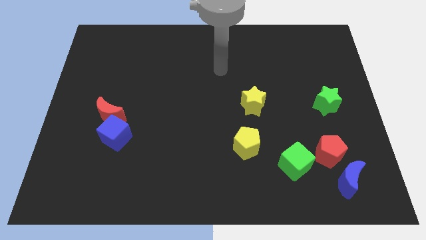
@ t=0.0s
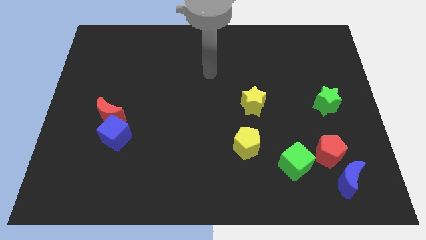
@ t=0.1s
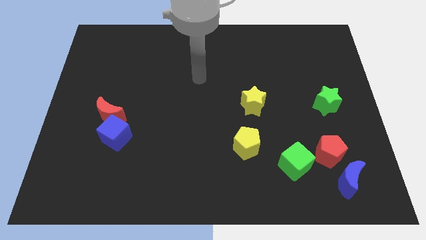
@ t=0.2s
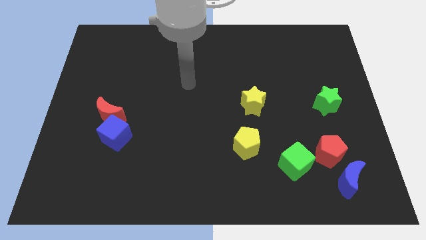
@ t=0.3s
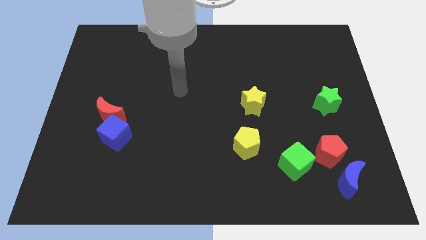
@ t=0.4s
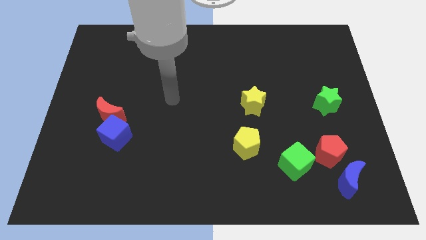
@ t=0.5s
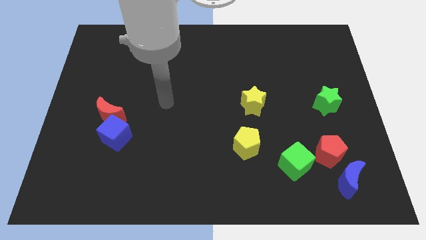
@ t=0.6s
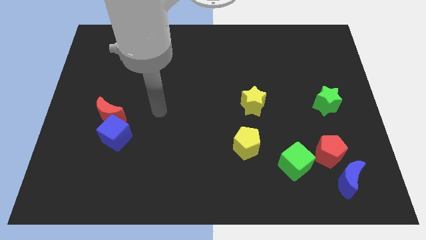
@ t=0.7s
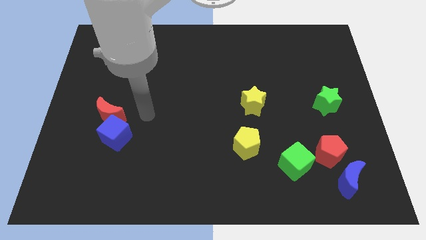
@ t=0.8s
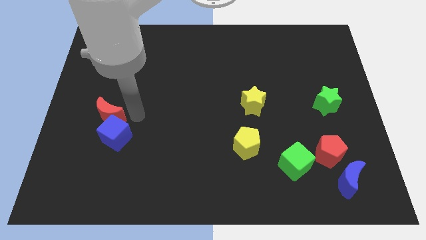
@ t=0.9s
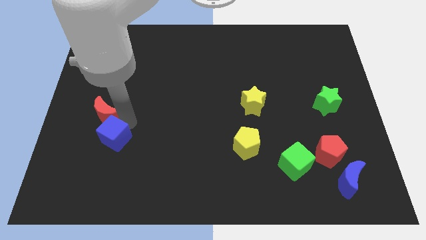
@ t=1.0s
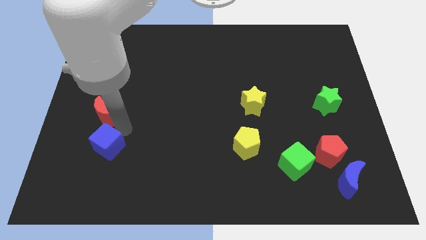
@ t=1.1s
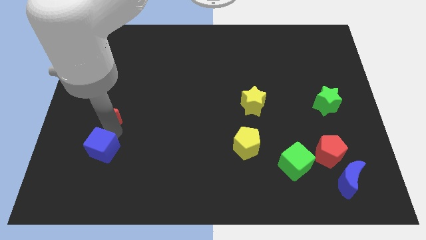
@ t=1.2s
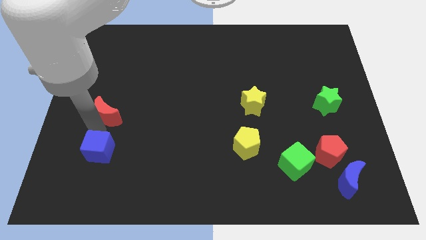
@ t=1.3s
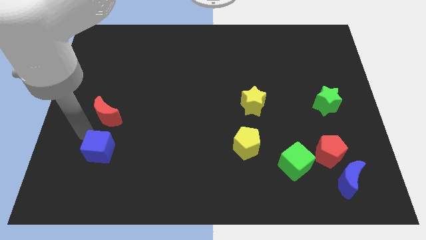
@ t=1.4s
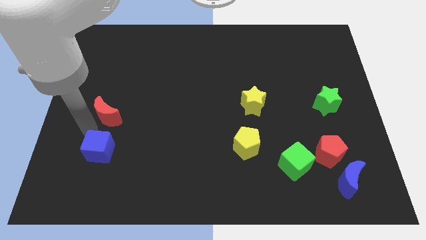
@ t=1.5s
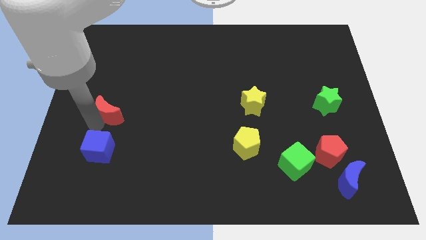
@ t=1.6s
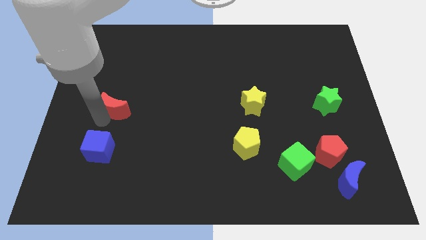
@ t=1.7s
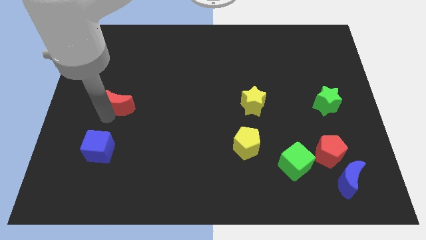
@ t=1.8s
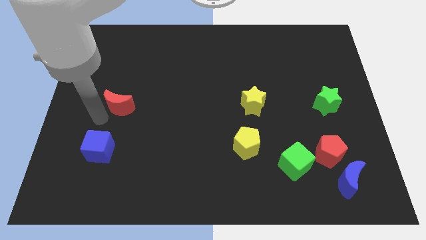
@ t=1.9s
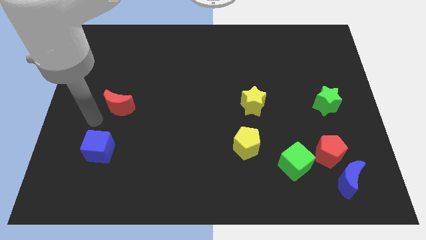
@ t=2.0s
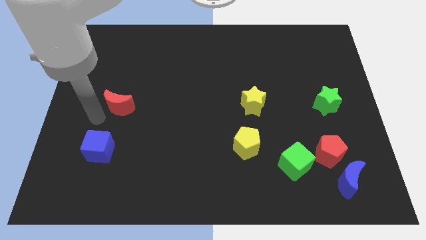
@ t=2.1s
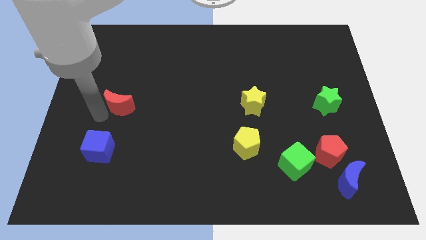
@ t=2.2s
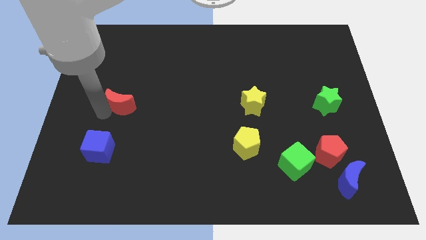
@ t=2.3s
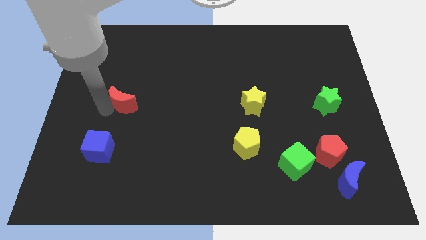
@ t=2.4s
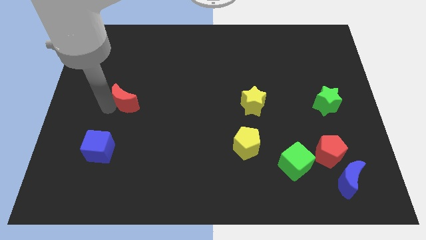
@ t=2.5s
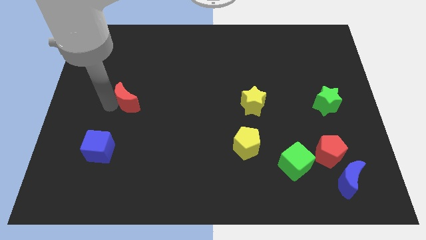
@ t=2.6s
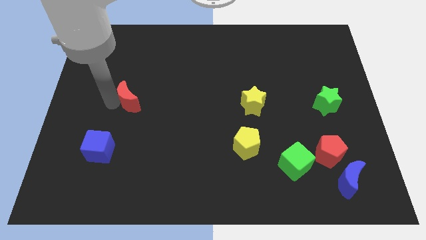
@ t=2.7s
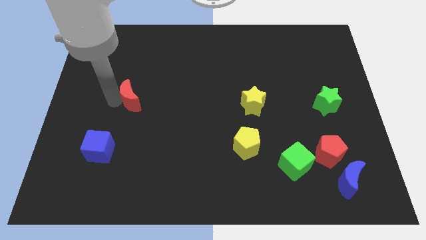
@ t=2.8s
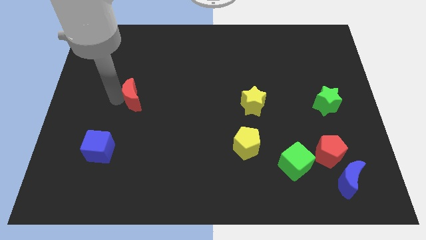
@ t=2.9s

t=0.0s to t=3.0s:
slightly move the red moon upwards and to the right diagonally

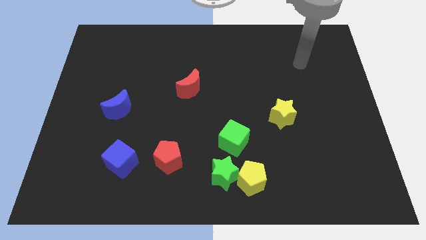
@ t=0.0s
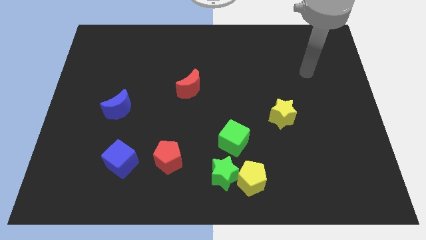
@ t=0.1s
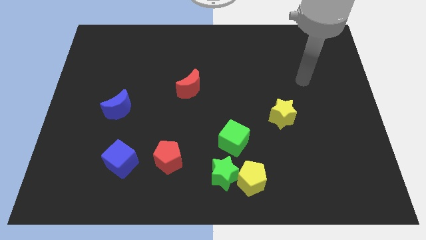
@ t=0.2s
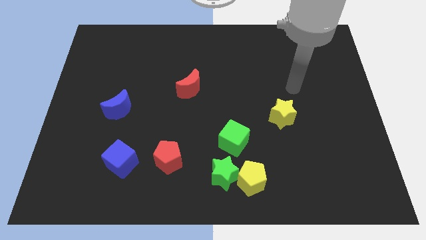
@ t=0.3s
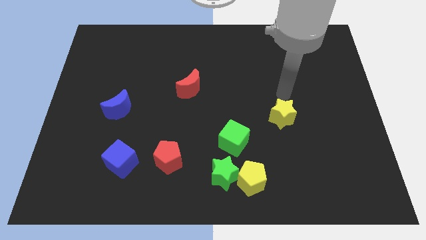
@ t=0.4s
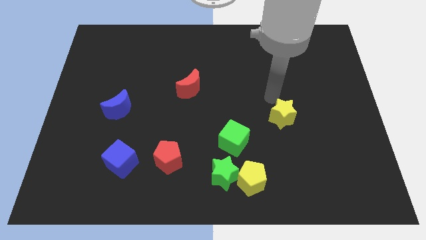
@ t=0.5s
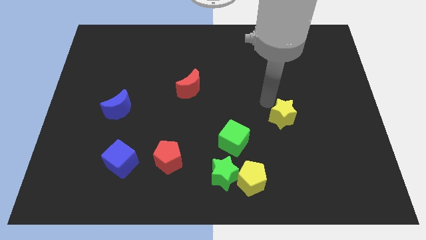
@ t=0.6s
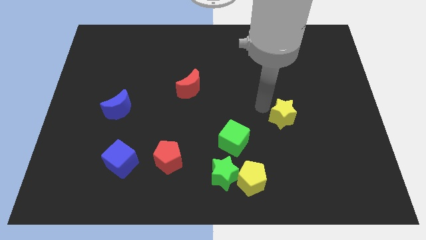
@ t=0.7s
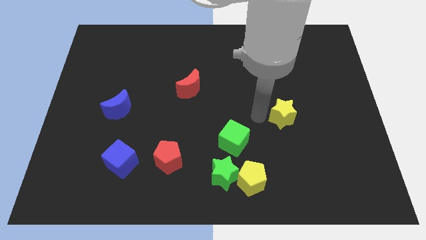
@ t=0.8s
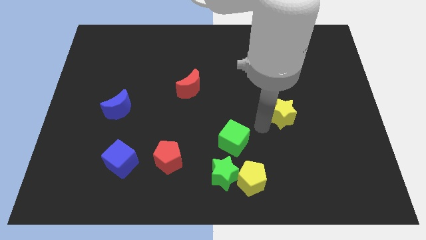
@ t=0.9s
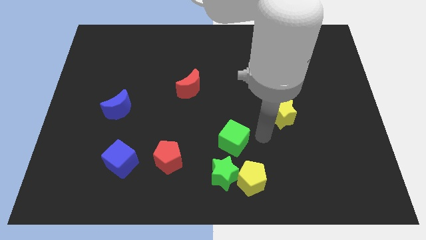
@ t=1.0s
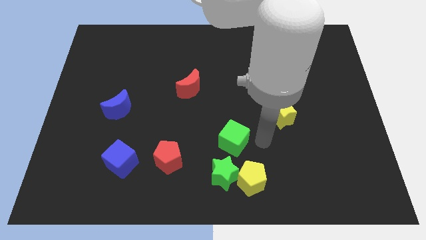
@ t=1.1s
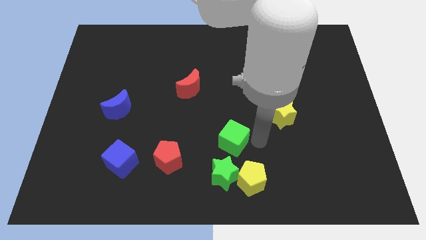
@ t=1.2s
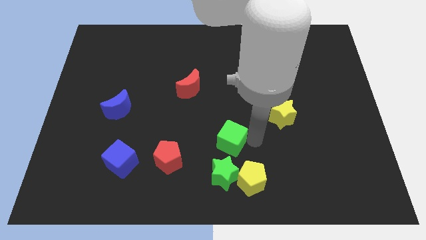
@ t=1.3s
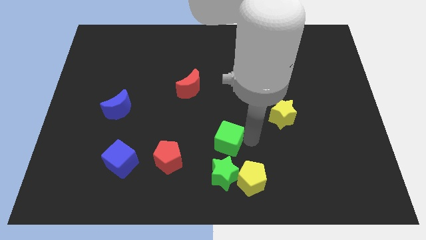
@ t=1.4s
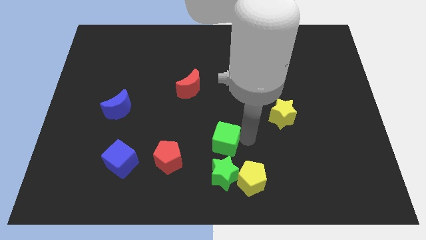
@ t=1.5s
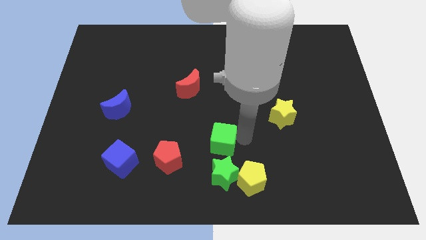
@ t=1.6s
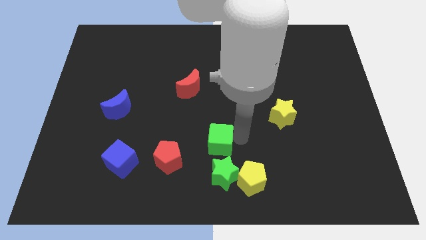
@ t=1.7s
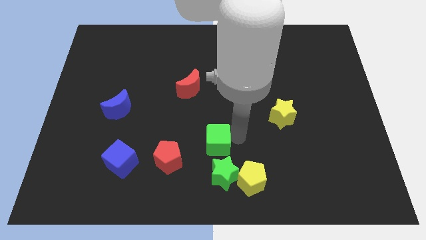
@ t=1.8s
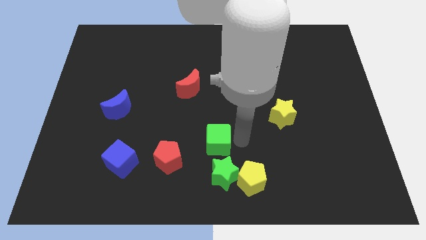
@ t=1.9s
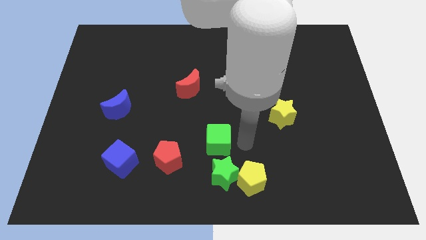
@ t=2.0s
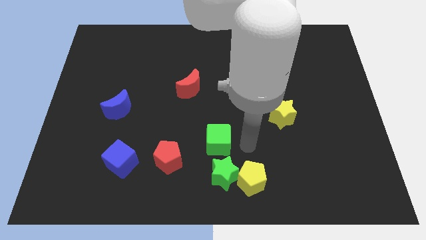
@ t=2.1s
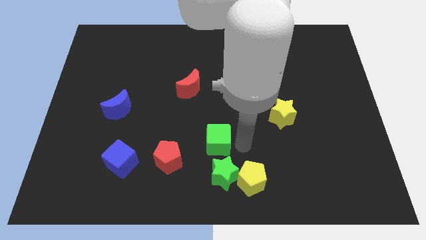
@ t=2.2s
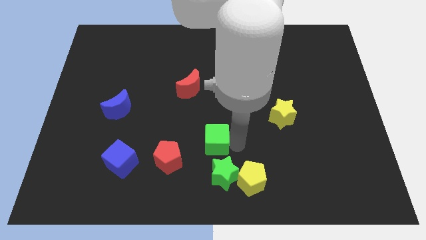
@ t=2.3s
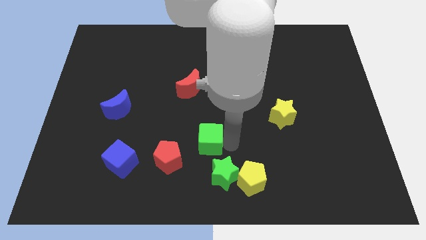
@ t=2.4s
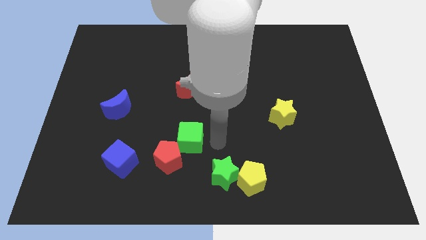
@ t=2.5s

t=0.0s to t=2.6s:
slightly push the green cube to the left

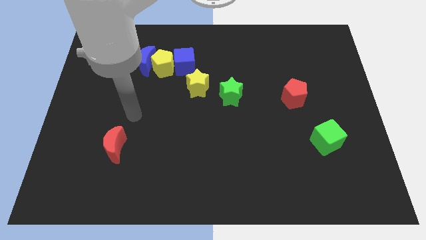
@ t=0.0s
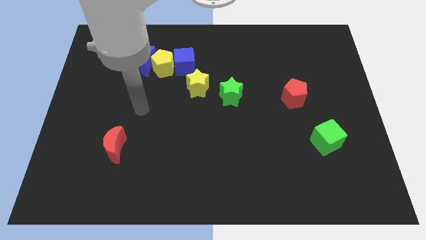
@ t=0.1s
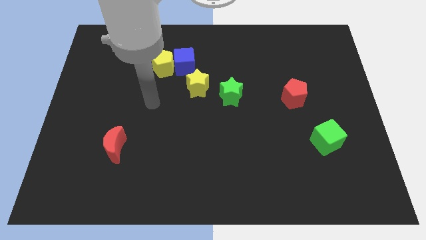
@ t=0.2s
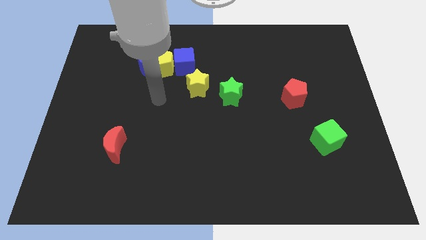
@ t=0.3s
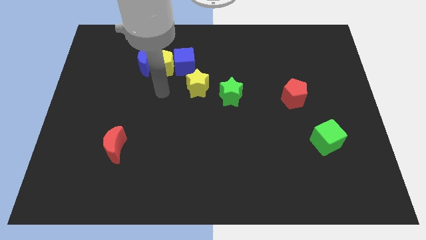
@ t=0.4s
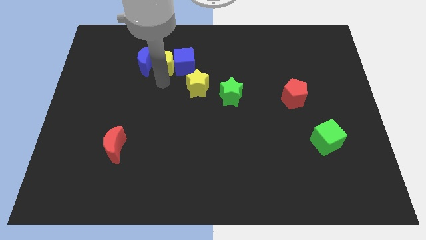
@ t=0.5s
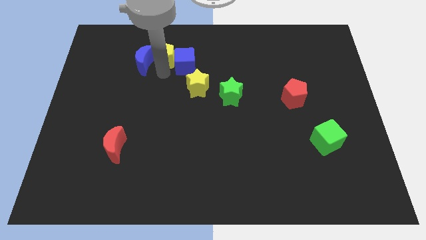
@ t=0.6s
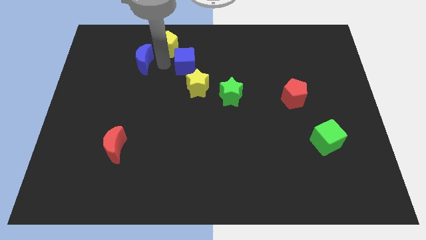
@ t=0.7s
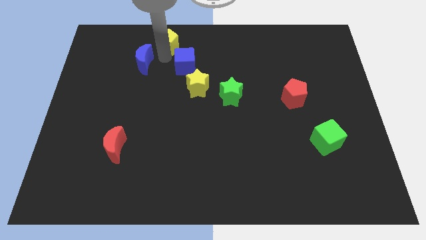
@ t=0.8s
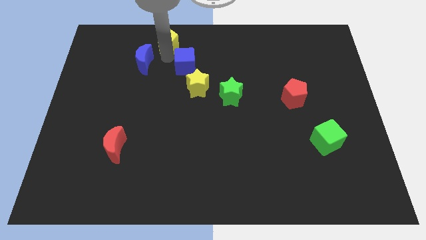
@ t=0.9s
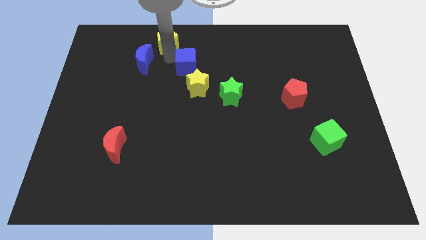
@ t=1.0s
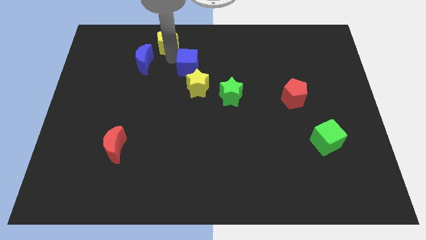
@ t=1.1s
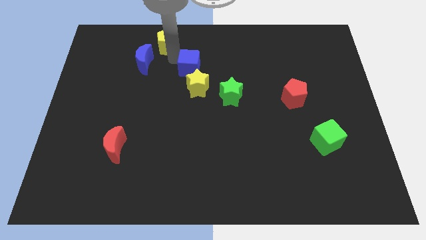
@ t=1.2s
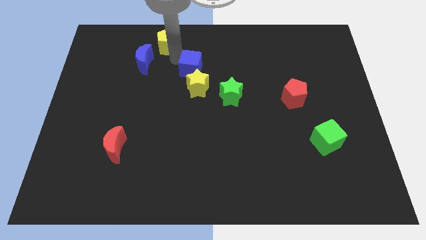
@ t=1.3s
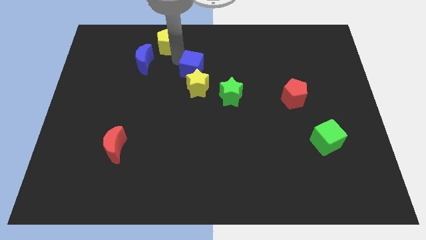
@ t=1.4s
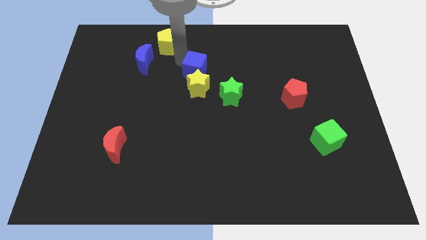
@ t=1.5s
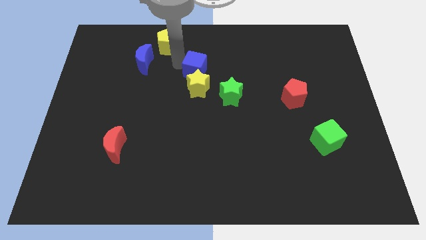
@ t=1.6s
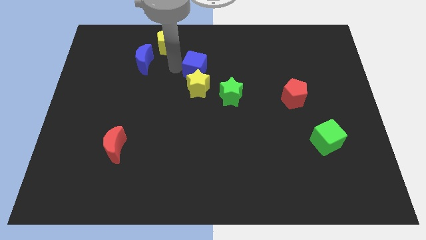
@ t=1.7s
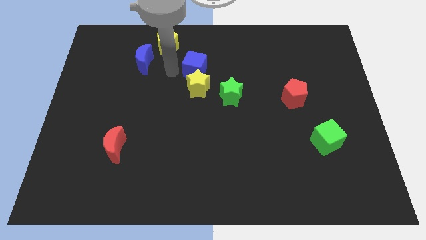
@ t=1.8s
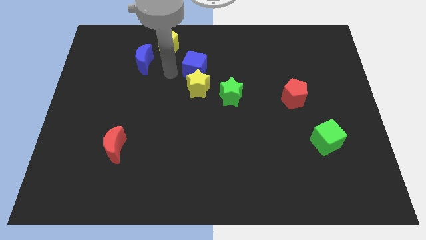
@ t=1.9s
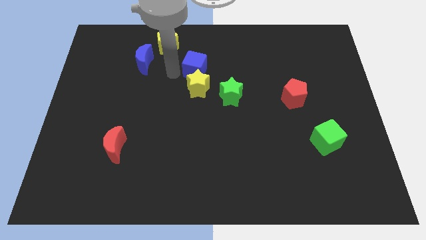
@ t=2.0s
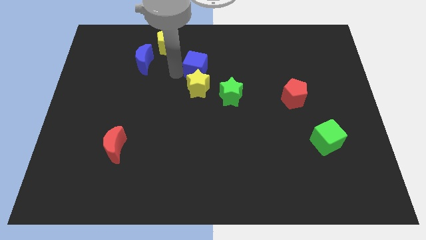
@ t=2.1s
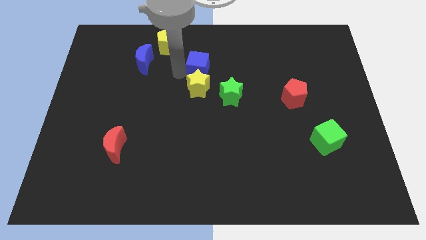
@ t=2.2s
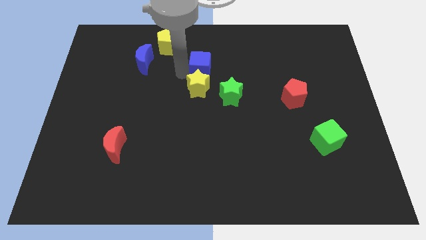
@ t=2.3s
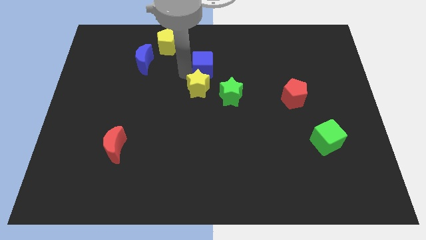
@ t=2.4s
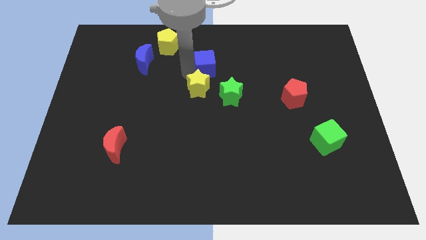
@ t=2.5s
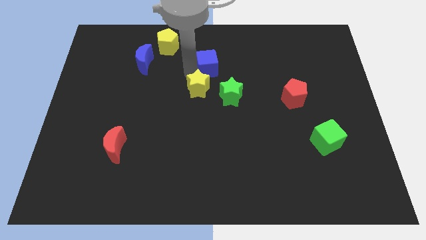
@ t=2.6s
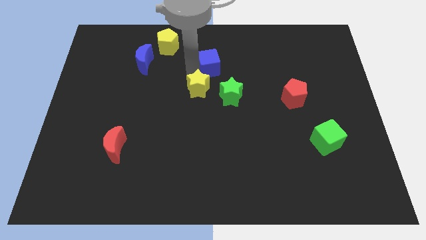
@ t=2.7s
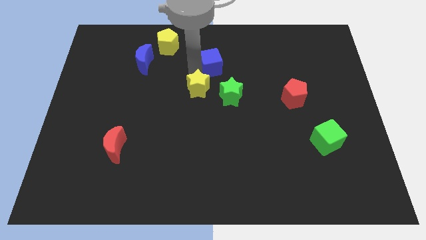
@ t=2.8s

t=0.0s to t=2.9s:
slide the blue cube a little to the right
